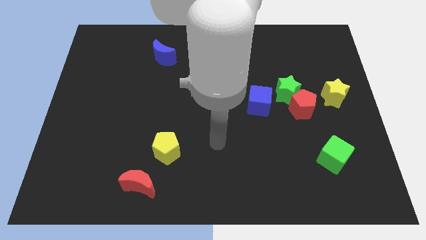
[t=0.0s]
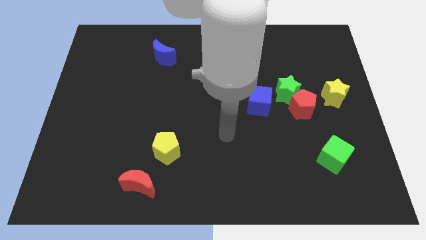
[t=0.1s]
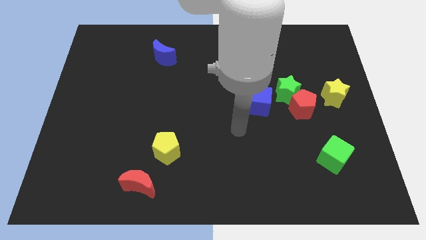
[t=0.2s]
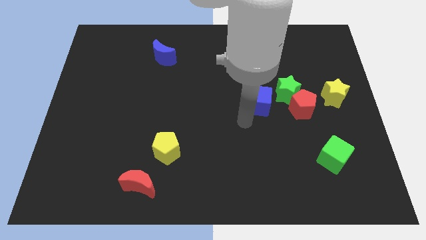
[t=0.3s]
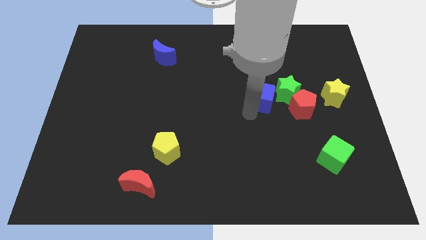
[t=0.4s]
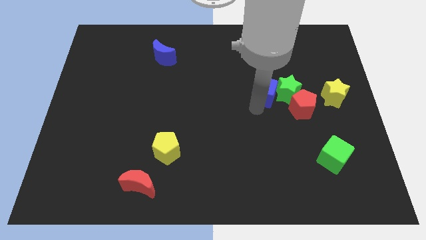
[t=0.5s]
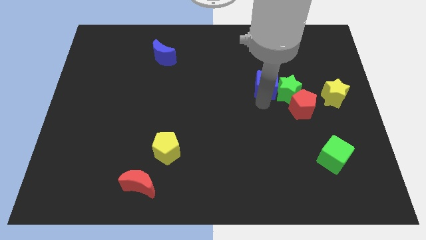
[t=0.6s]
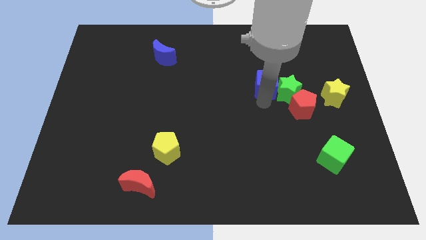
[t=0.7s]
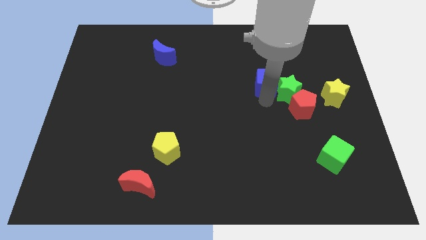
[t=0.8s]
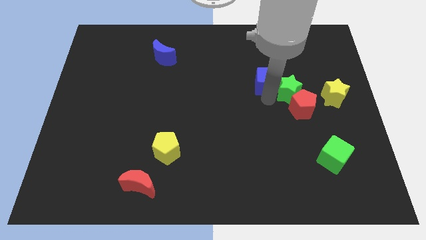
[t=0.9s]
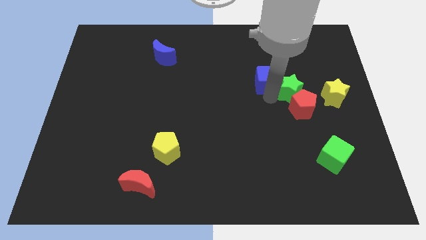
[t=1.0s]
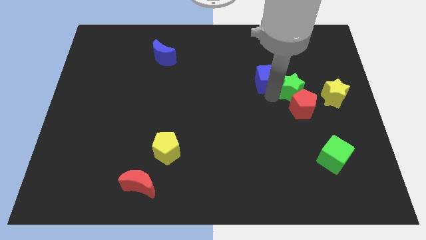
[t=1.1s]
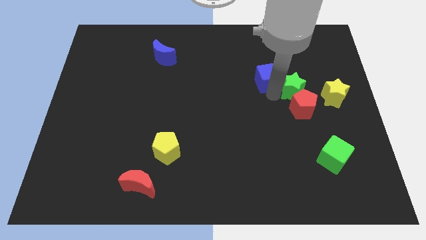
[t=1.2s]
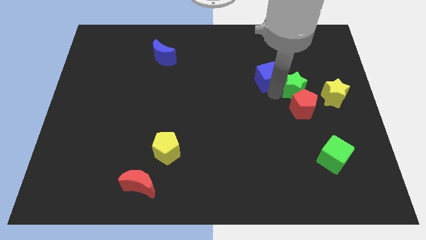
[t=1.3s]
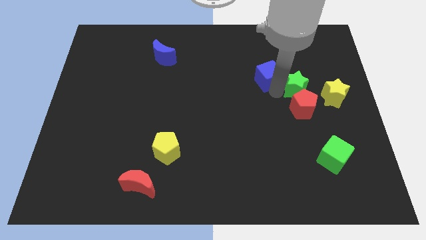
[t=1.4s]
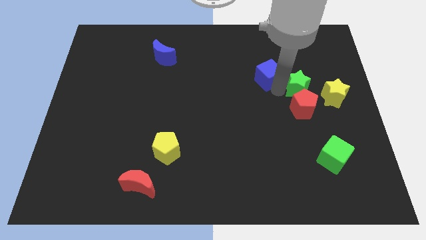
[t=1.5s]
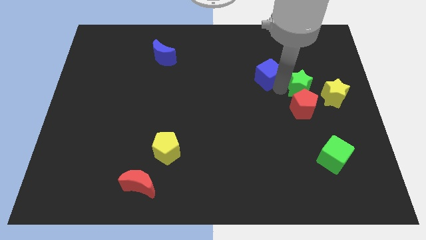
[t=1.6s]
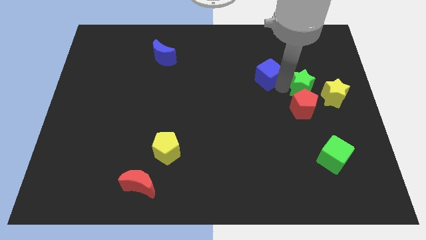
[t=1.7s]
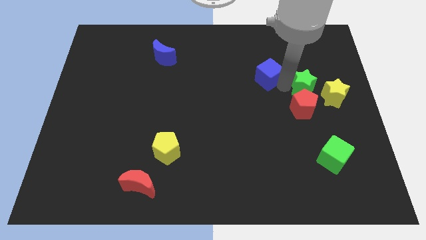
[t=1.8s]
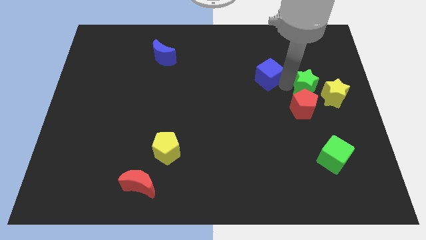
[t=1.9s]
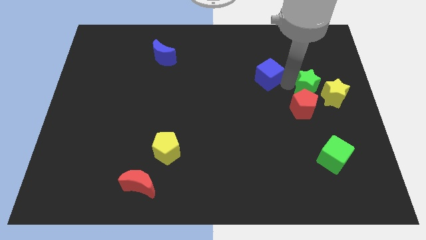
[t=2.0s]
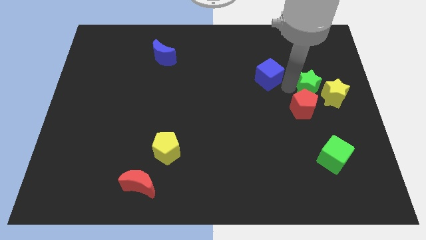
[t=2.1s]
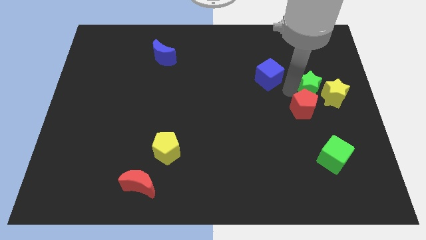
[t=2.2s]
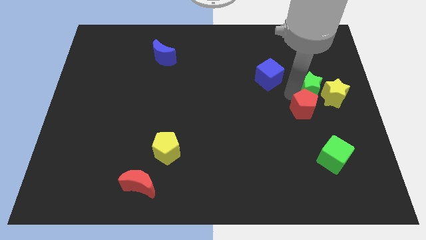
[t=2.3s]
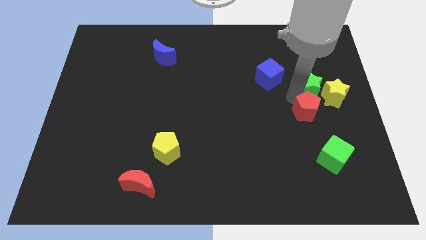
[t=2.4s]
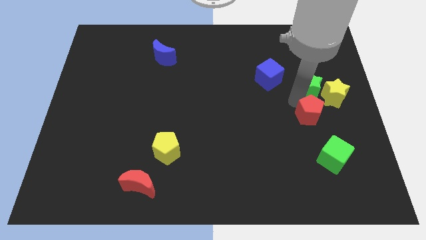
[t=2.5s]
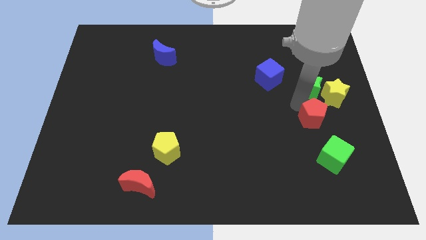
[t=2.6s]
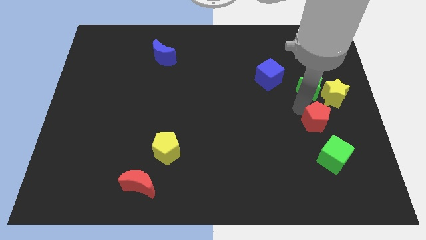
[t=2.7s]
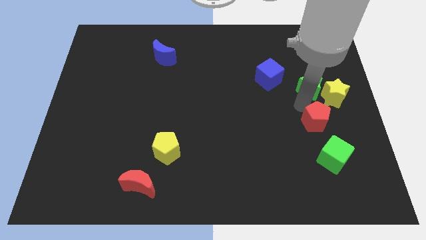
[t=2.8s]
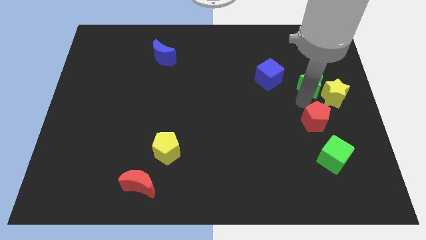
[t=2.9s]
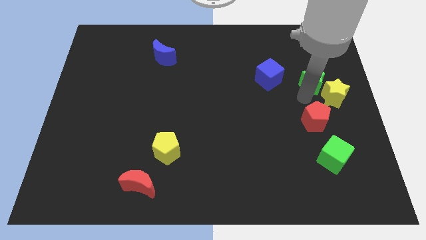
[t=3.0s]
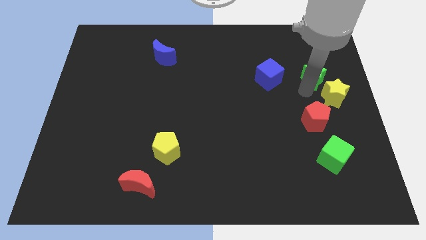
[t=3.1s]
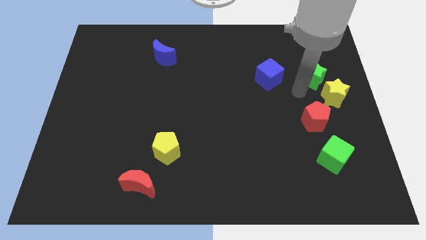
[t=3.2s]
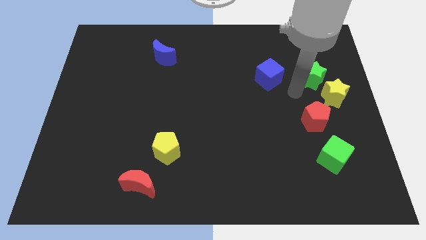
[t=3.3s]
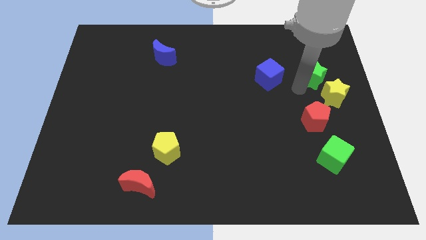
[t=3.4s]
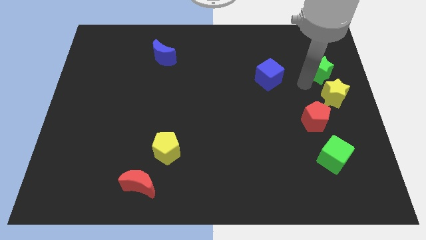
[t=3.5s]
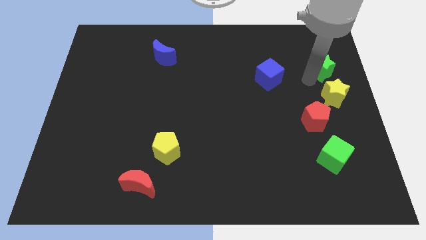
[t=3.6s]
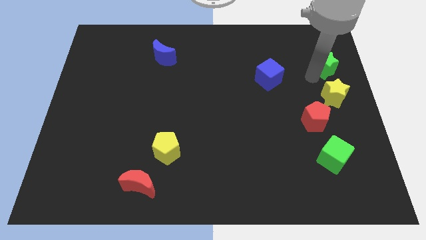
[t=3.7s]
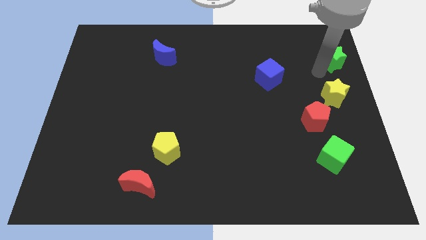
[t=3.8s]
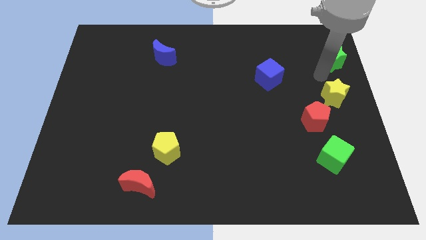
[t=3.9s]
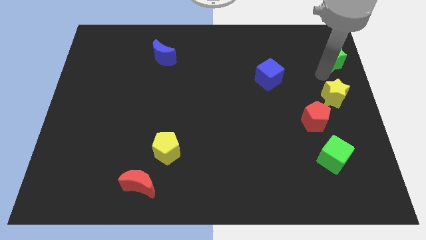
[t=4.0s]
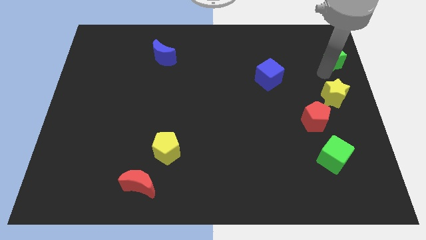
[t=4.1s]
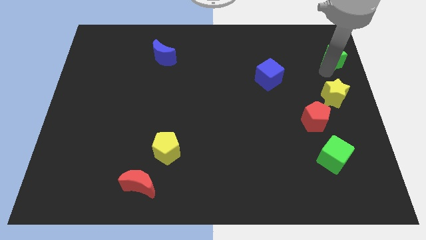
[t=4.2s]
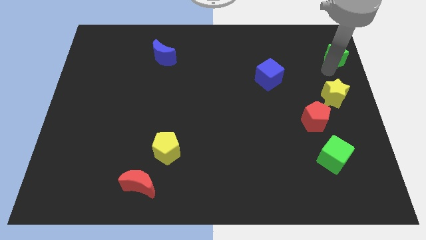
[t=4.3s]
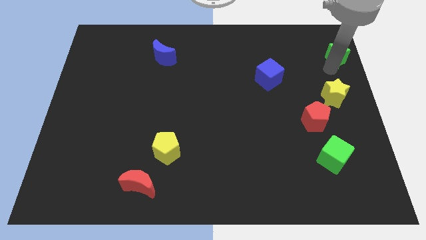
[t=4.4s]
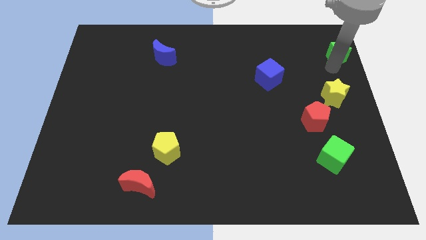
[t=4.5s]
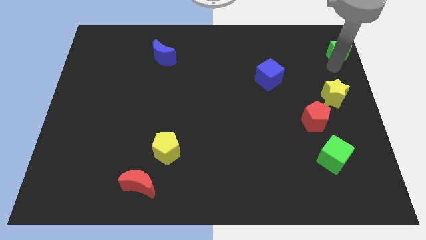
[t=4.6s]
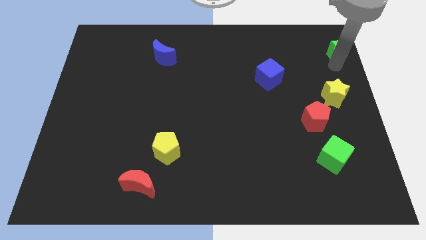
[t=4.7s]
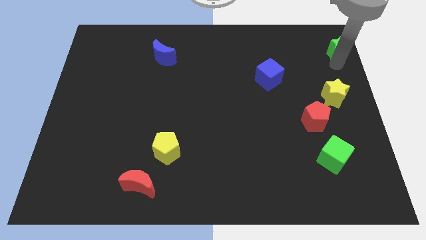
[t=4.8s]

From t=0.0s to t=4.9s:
push the green star to the top right

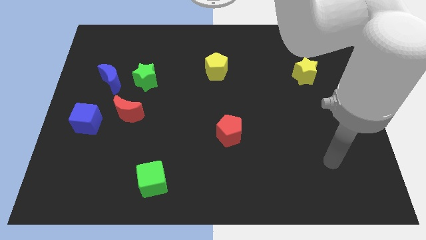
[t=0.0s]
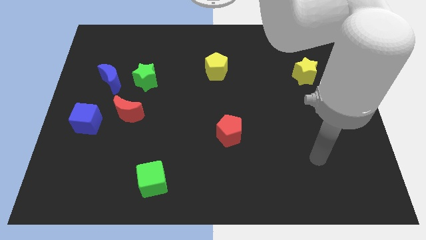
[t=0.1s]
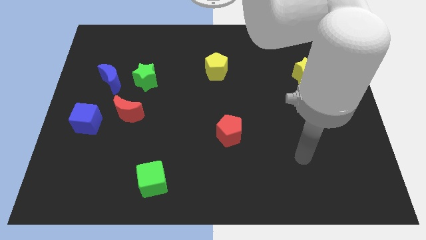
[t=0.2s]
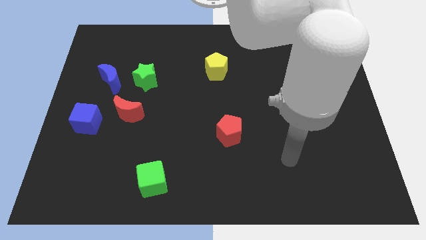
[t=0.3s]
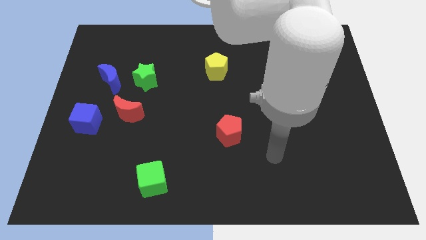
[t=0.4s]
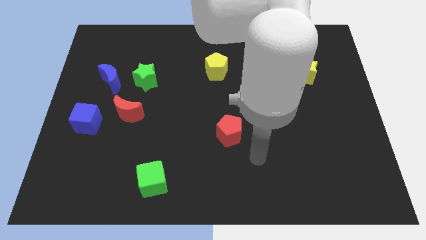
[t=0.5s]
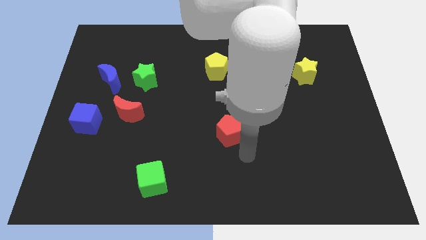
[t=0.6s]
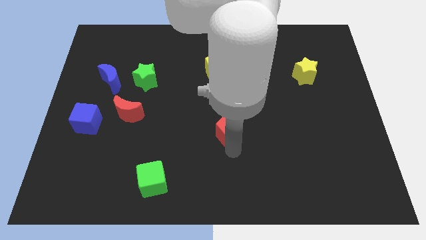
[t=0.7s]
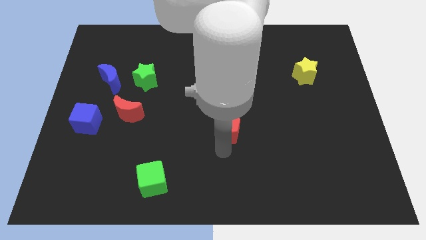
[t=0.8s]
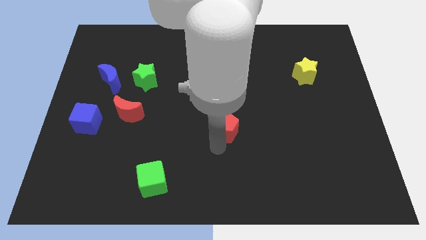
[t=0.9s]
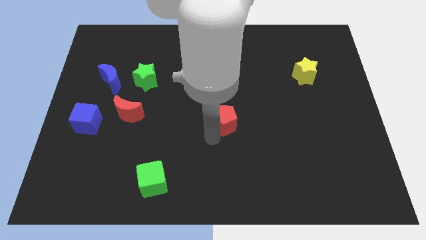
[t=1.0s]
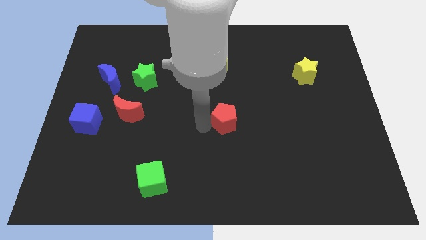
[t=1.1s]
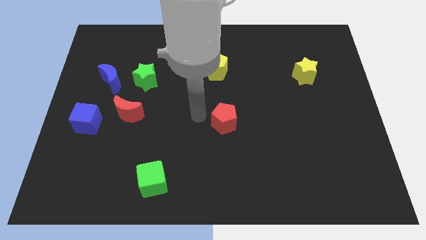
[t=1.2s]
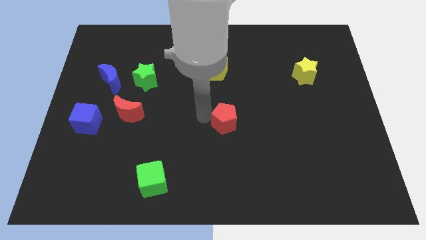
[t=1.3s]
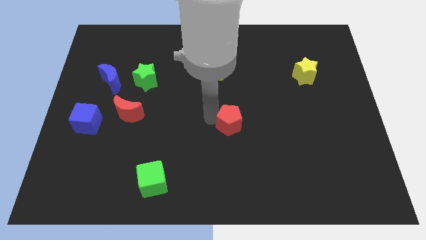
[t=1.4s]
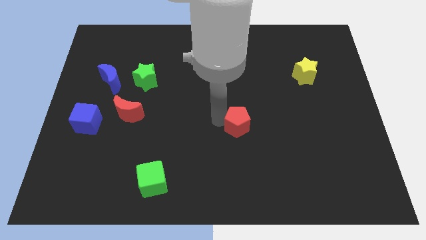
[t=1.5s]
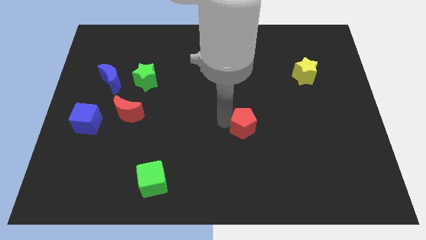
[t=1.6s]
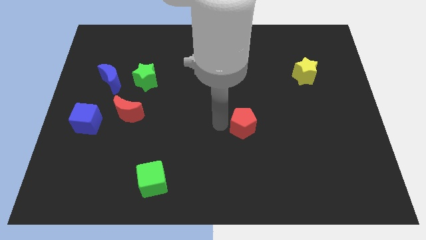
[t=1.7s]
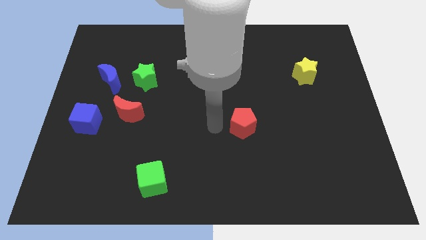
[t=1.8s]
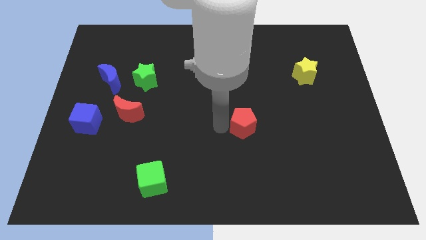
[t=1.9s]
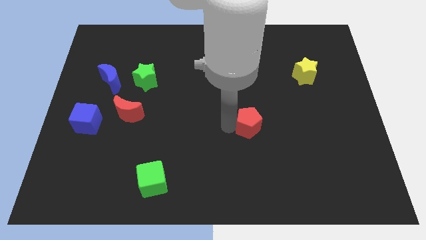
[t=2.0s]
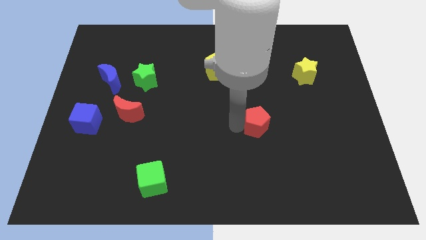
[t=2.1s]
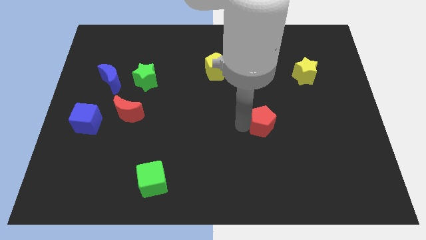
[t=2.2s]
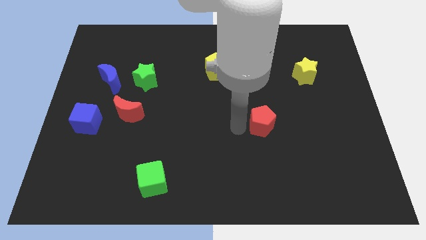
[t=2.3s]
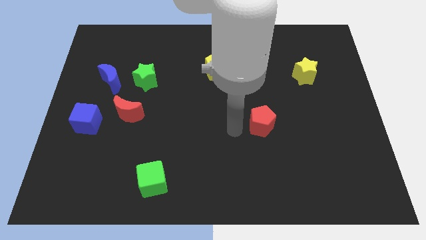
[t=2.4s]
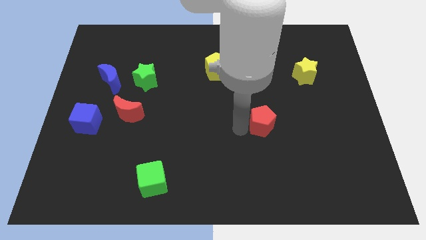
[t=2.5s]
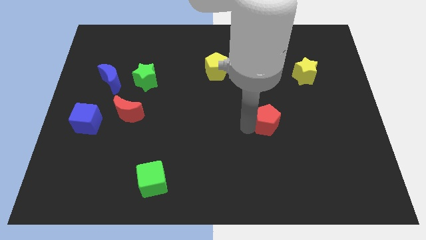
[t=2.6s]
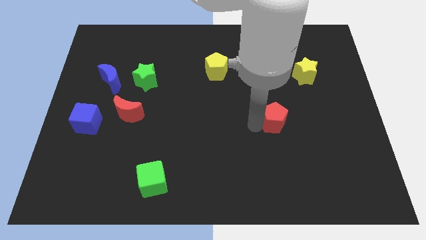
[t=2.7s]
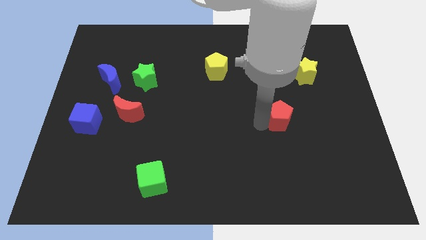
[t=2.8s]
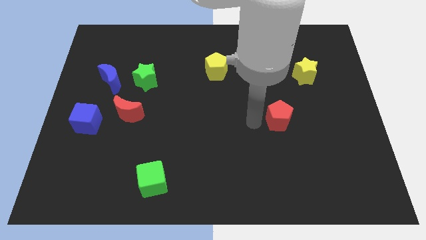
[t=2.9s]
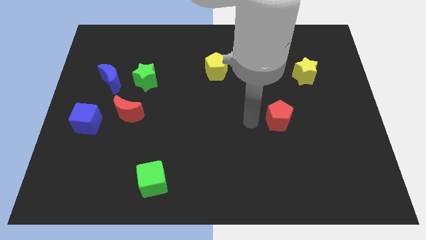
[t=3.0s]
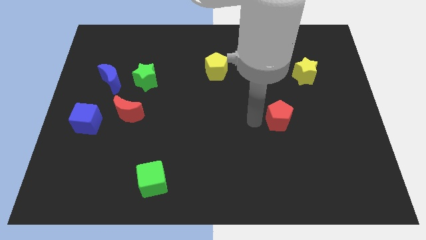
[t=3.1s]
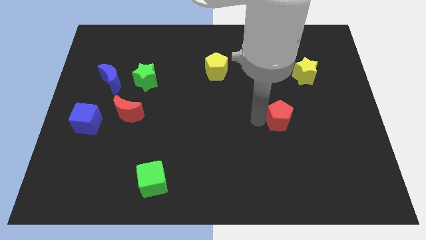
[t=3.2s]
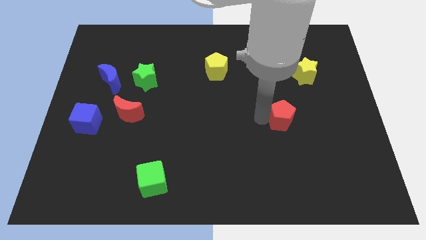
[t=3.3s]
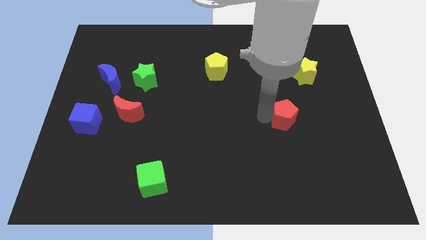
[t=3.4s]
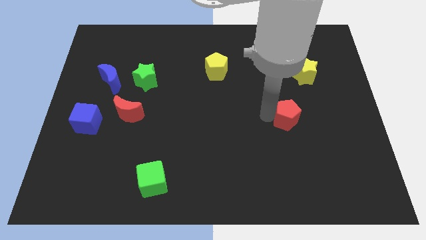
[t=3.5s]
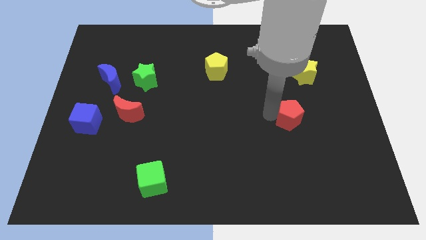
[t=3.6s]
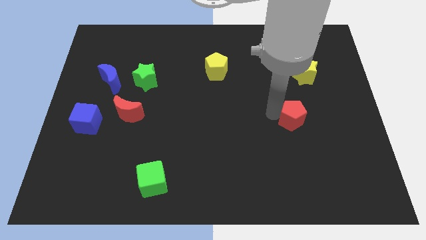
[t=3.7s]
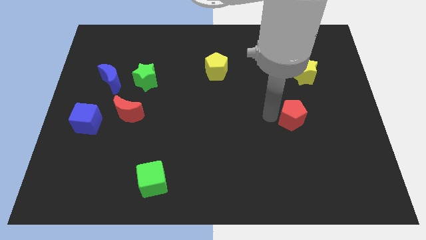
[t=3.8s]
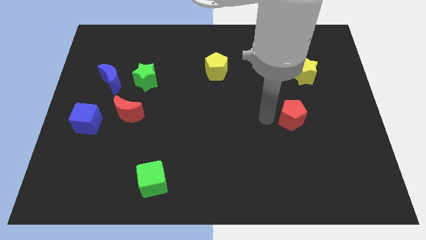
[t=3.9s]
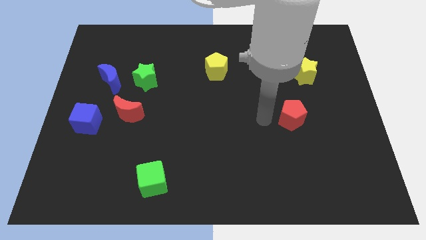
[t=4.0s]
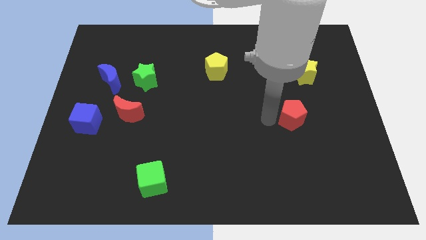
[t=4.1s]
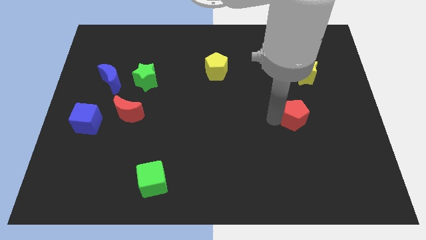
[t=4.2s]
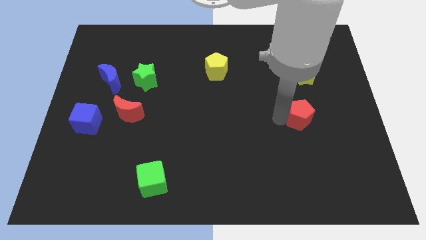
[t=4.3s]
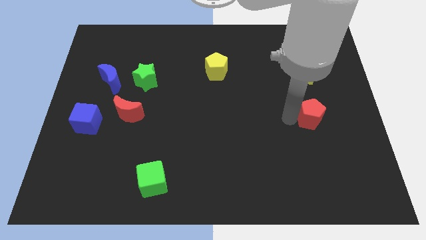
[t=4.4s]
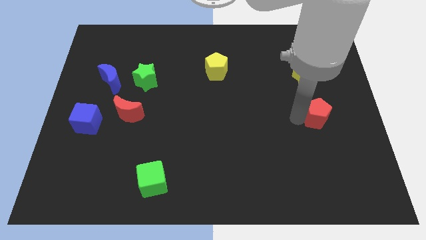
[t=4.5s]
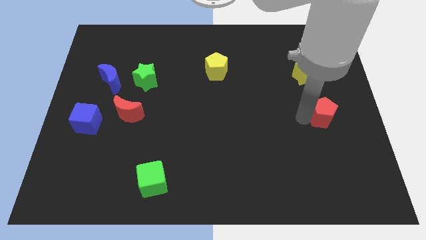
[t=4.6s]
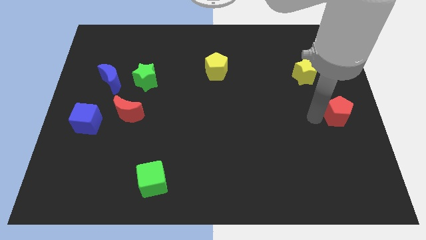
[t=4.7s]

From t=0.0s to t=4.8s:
slide the red pentagon to the center right
